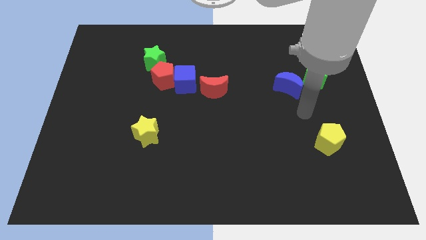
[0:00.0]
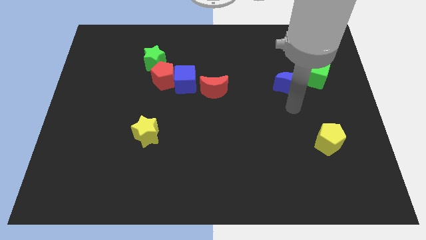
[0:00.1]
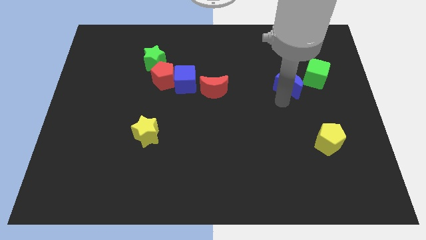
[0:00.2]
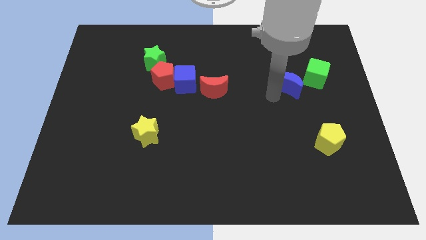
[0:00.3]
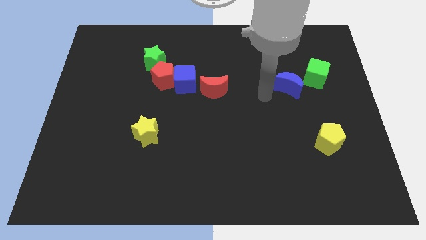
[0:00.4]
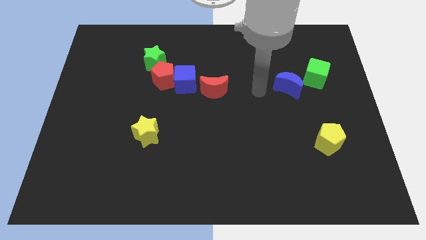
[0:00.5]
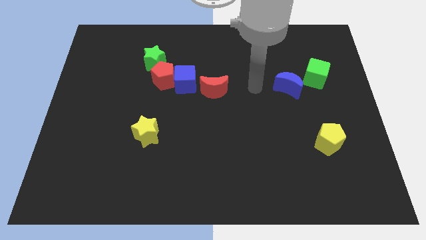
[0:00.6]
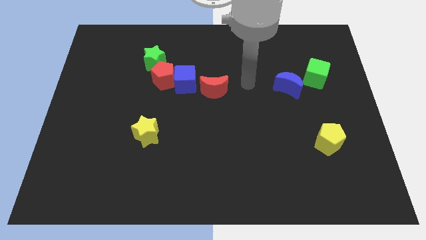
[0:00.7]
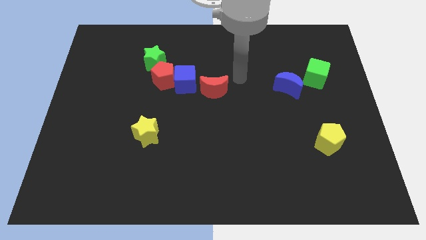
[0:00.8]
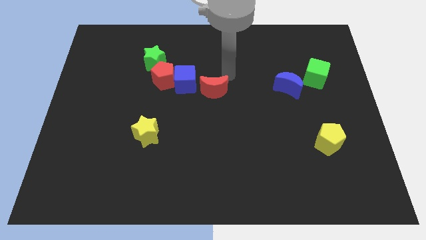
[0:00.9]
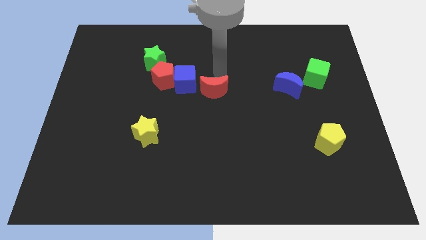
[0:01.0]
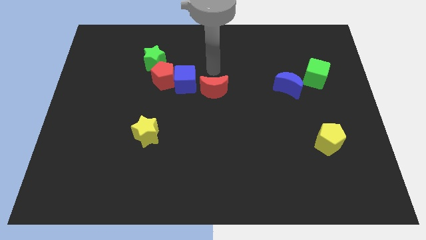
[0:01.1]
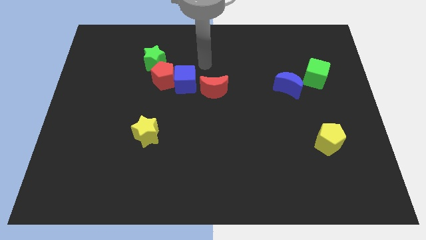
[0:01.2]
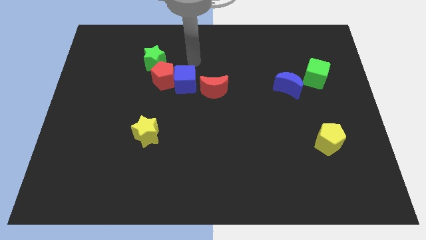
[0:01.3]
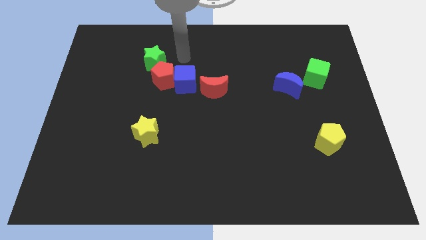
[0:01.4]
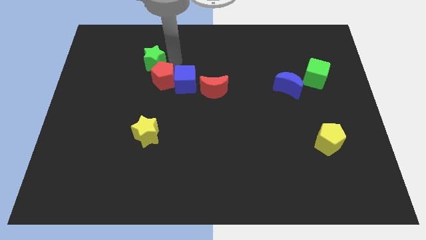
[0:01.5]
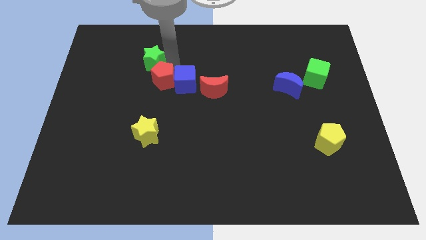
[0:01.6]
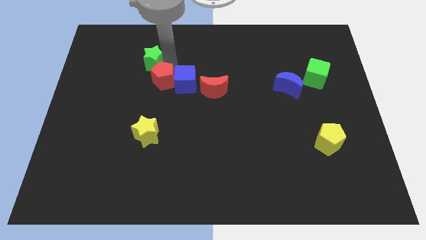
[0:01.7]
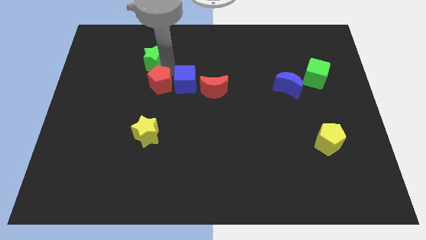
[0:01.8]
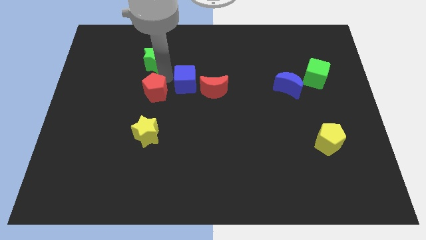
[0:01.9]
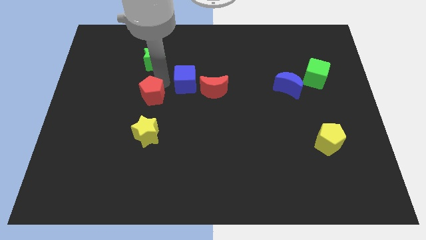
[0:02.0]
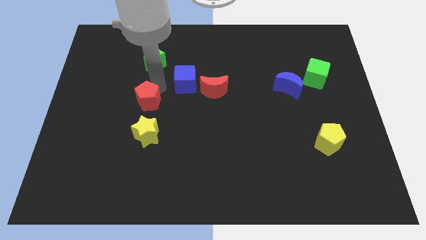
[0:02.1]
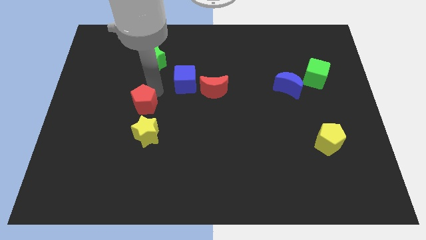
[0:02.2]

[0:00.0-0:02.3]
move the red pentagon away from the blue cube and green star

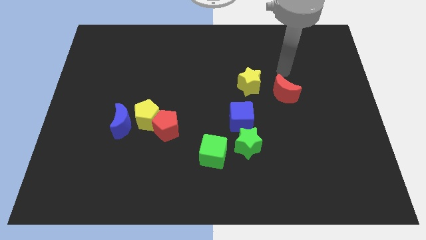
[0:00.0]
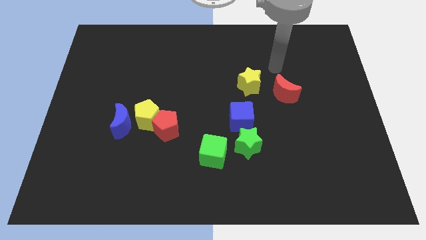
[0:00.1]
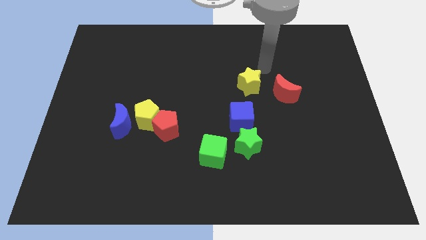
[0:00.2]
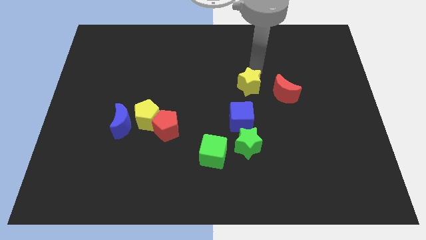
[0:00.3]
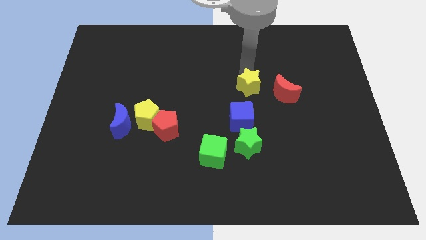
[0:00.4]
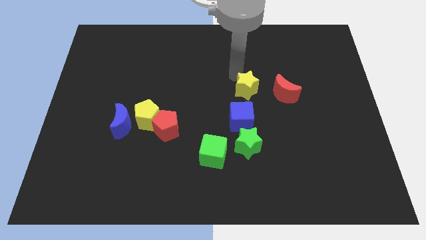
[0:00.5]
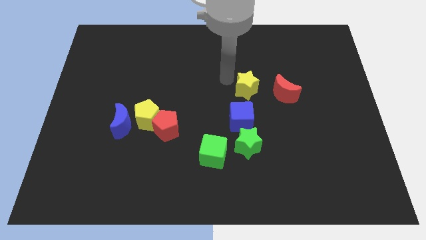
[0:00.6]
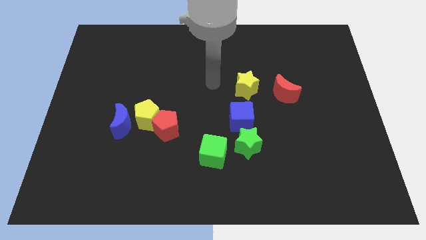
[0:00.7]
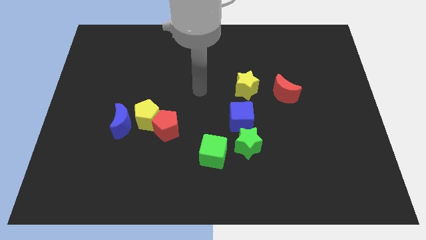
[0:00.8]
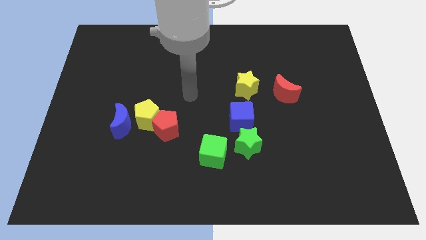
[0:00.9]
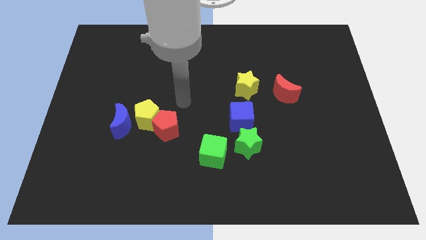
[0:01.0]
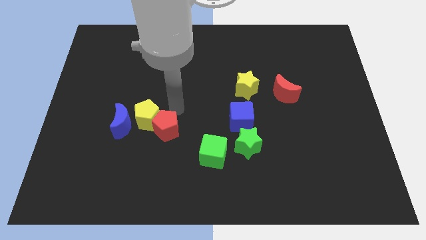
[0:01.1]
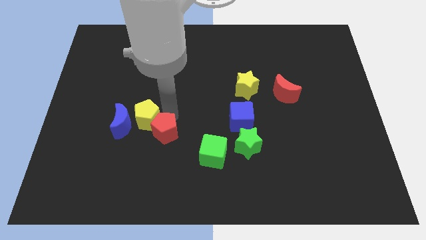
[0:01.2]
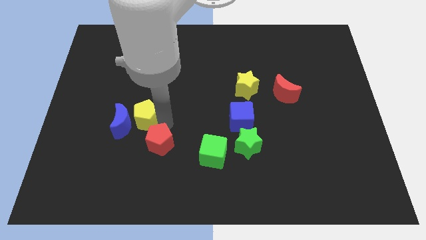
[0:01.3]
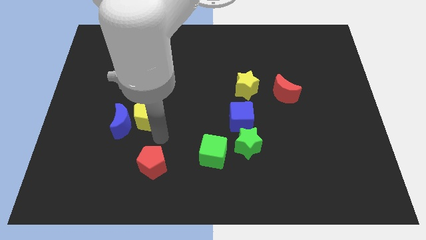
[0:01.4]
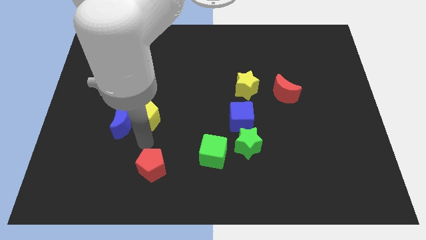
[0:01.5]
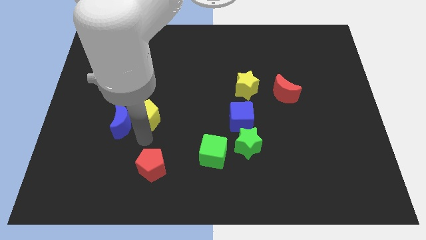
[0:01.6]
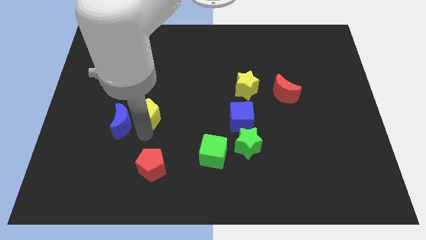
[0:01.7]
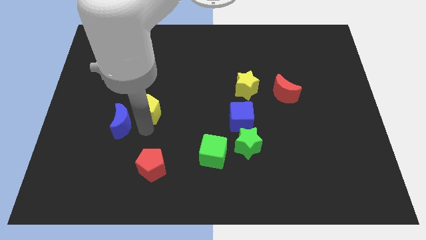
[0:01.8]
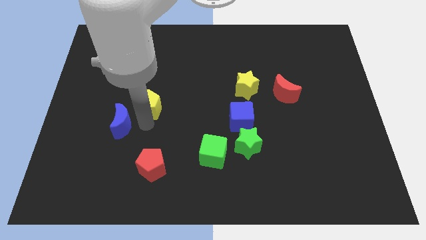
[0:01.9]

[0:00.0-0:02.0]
separate the yellow pentagon from the blue moon and red pentagon

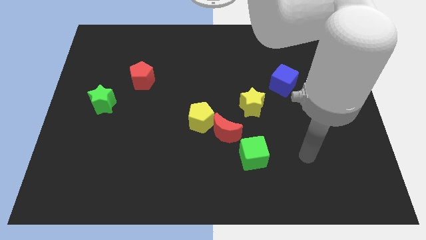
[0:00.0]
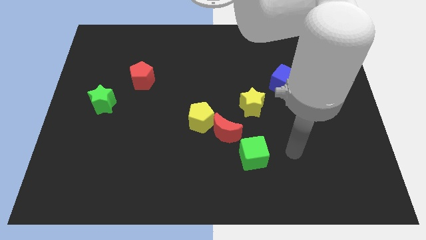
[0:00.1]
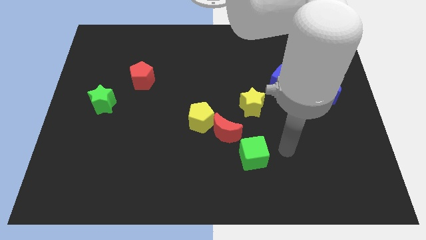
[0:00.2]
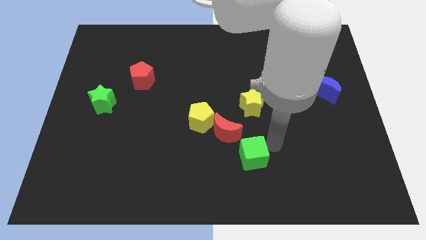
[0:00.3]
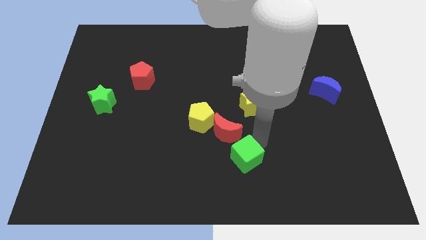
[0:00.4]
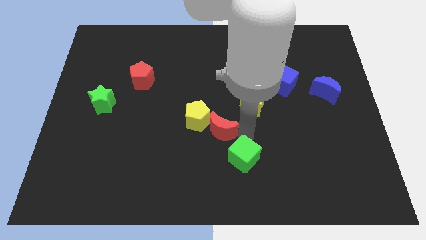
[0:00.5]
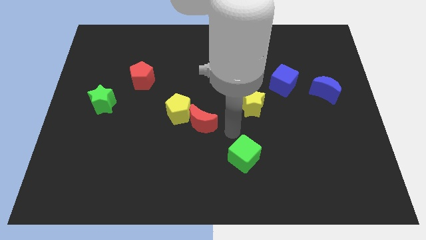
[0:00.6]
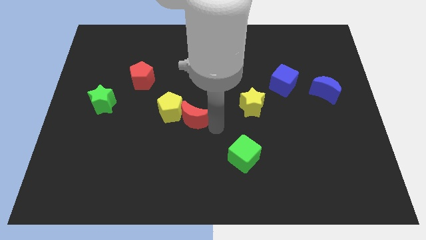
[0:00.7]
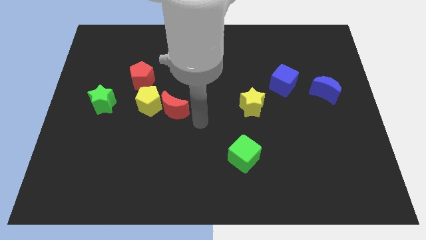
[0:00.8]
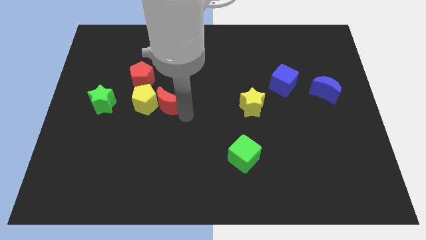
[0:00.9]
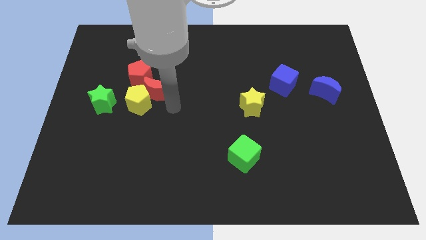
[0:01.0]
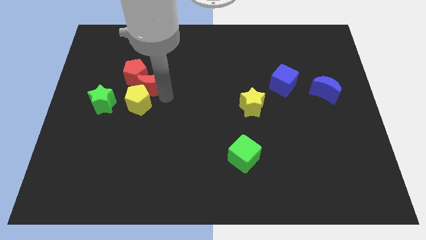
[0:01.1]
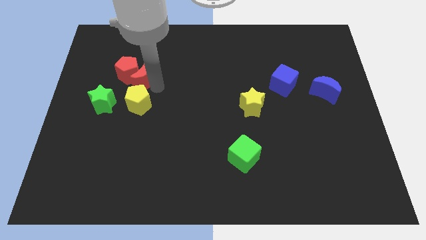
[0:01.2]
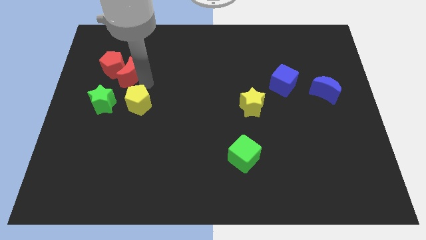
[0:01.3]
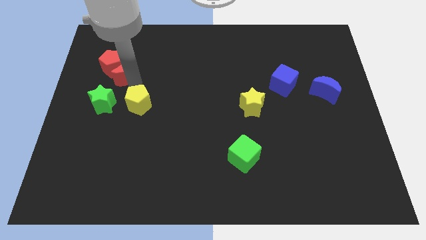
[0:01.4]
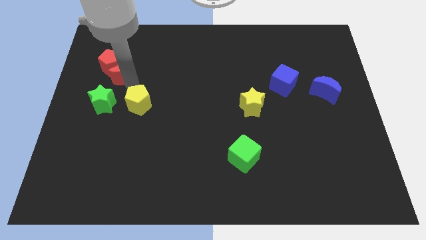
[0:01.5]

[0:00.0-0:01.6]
pull the yellow pentagon apart from the red moon

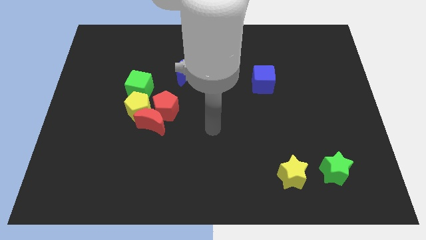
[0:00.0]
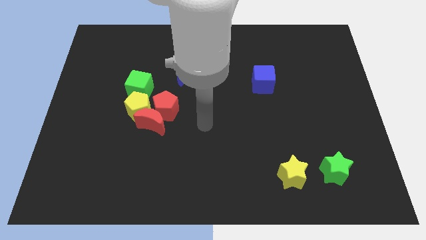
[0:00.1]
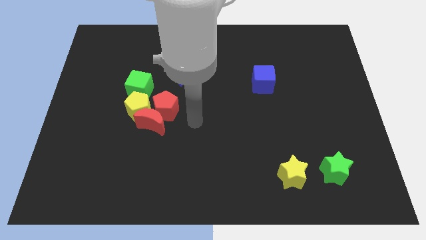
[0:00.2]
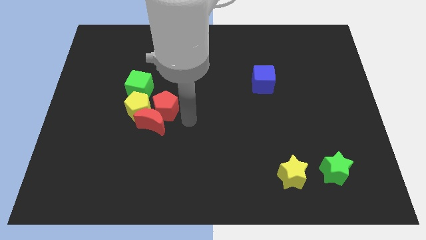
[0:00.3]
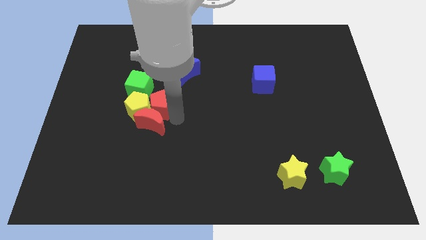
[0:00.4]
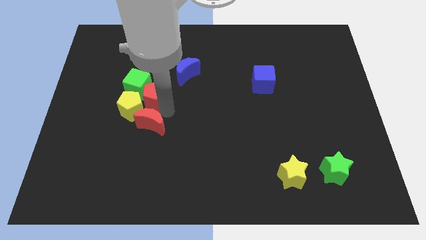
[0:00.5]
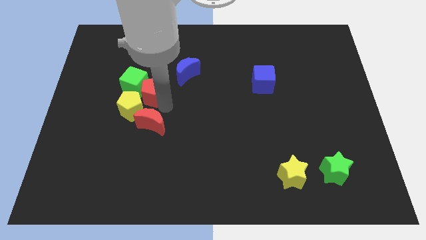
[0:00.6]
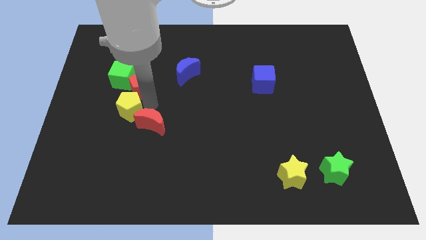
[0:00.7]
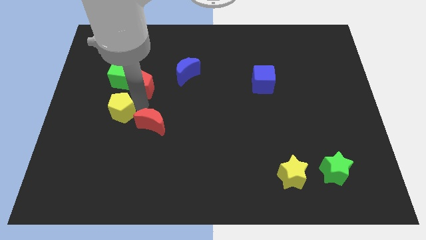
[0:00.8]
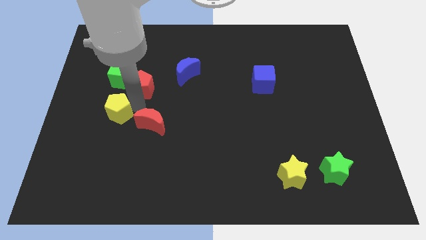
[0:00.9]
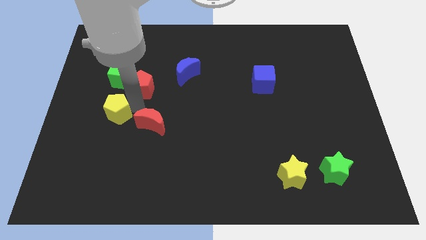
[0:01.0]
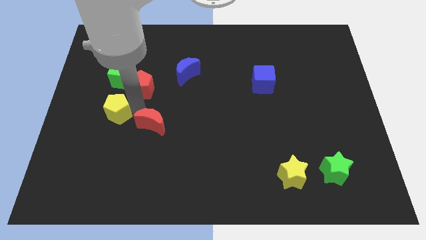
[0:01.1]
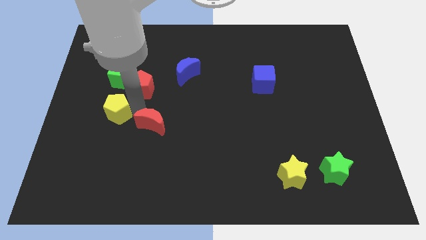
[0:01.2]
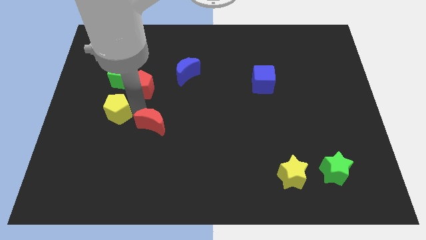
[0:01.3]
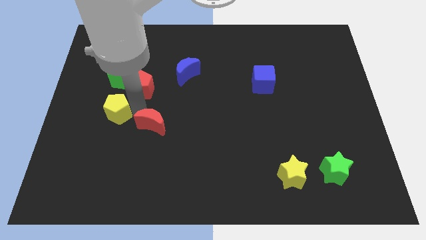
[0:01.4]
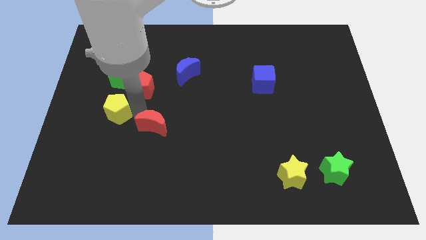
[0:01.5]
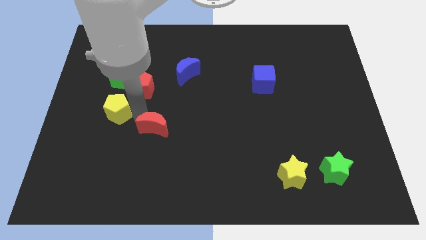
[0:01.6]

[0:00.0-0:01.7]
move the red moon away from the red pentagon and yellow pentagon

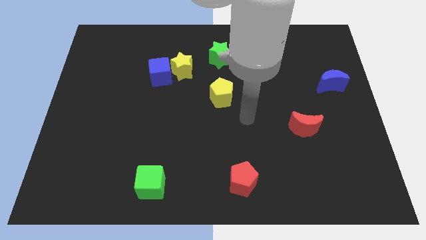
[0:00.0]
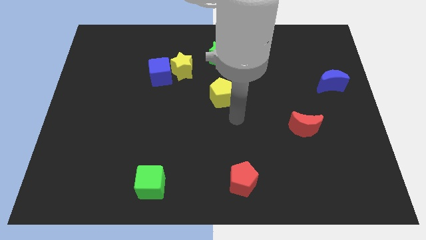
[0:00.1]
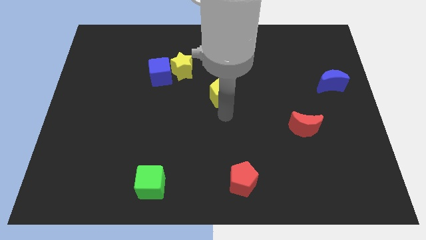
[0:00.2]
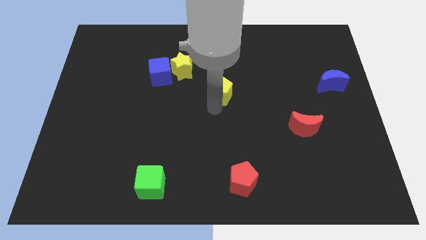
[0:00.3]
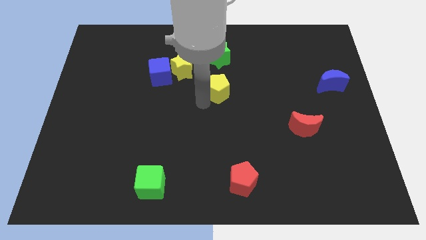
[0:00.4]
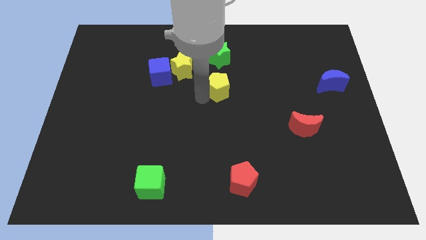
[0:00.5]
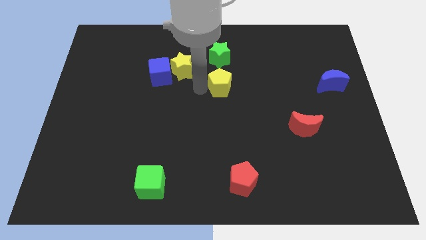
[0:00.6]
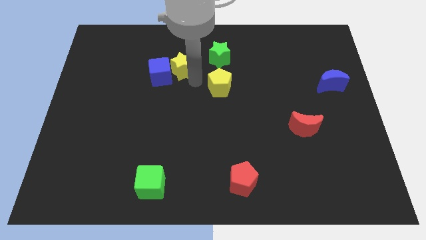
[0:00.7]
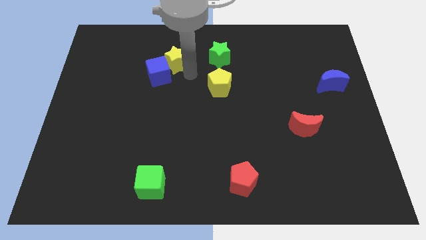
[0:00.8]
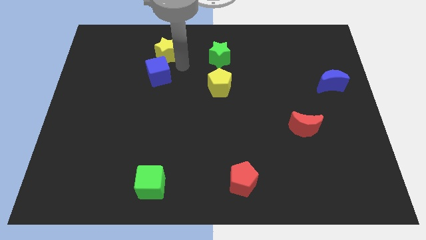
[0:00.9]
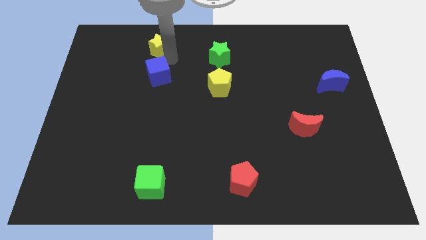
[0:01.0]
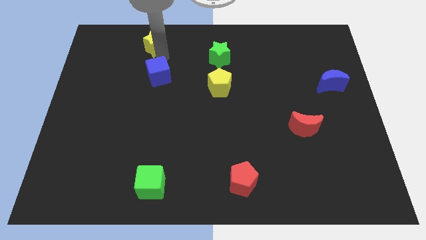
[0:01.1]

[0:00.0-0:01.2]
separate the blue cube from the yellow star

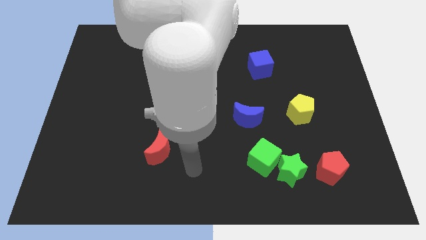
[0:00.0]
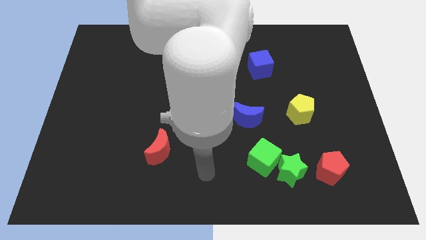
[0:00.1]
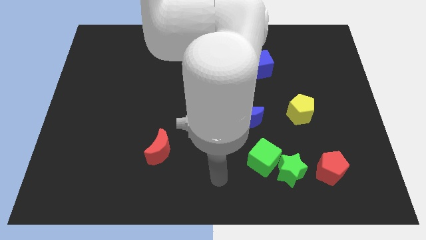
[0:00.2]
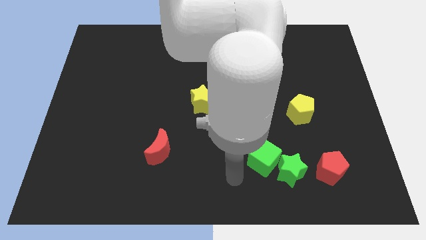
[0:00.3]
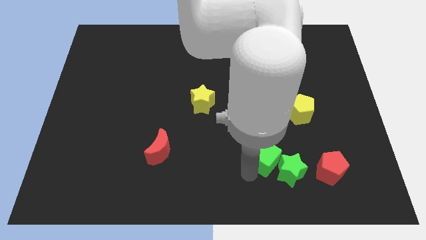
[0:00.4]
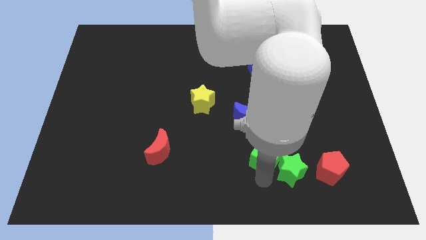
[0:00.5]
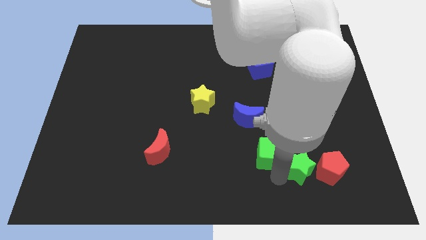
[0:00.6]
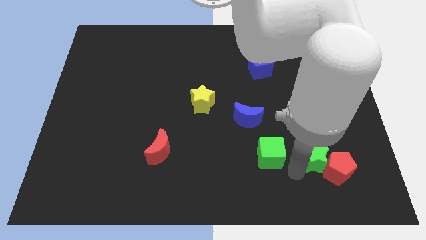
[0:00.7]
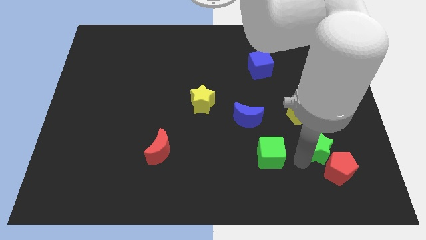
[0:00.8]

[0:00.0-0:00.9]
separate the green cube from the green star
